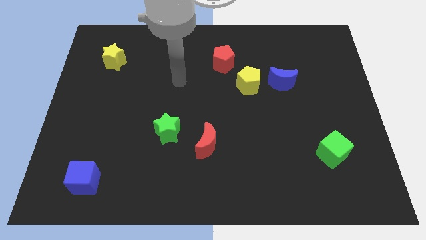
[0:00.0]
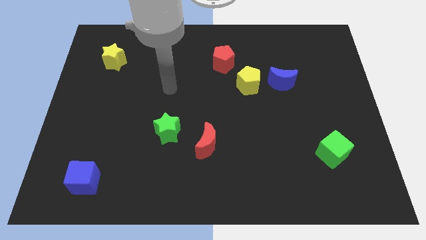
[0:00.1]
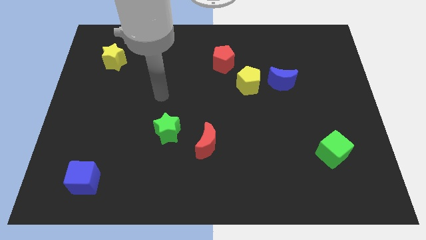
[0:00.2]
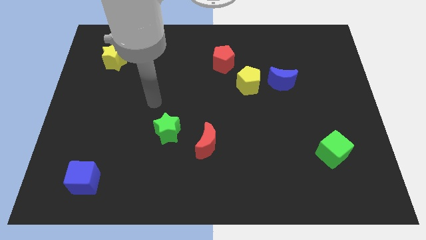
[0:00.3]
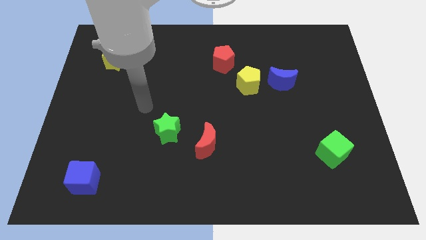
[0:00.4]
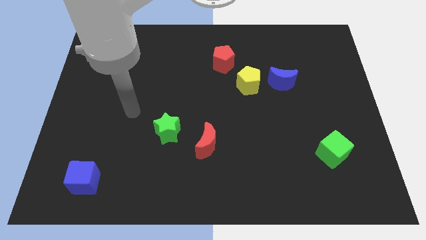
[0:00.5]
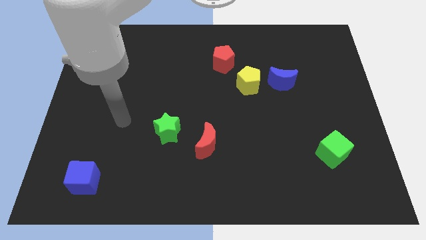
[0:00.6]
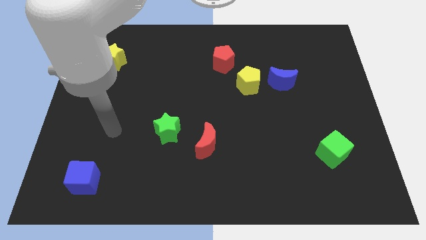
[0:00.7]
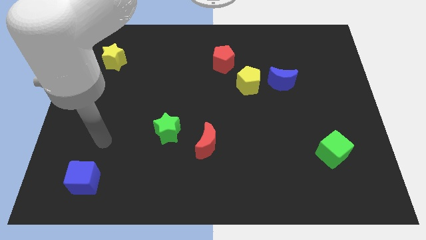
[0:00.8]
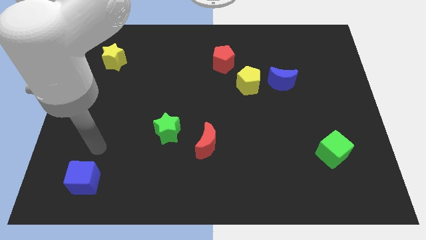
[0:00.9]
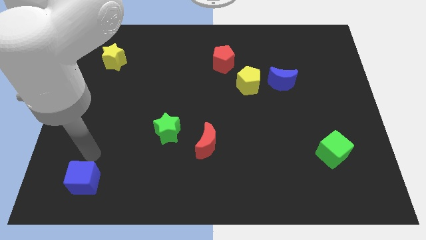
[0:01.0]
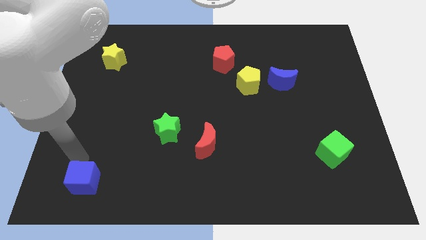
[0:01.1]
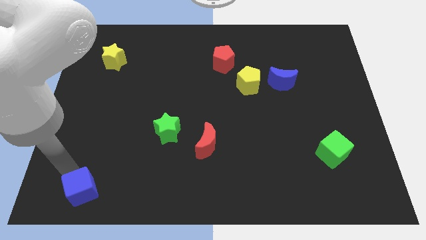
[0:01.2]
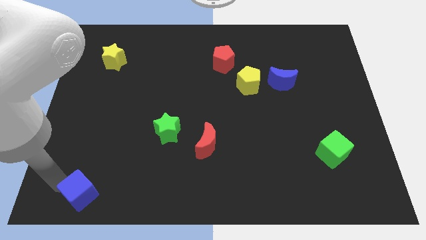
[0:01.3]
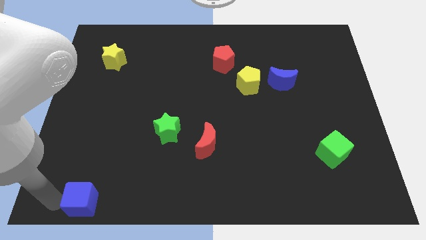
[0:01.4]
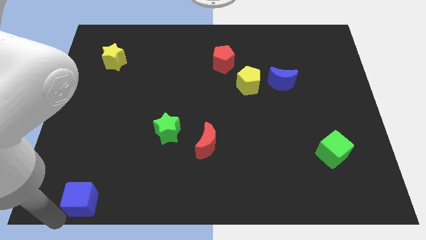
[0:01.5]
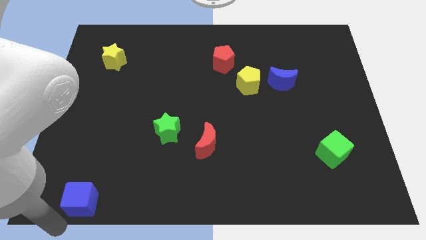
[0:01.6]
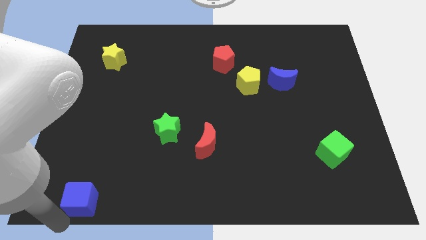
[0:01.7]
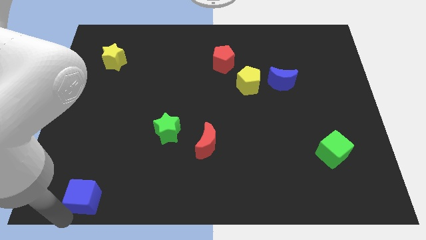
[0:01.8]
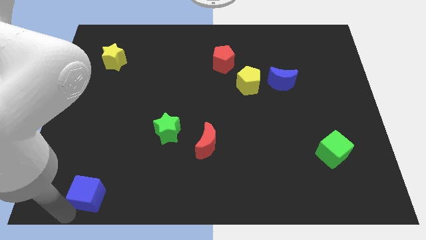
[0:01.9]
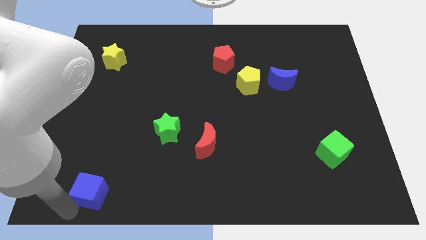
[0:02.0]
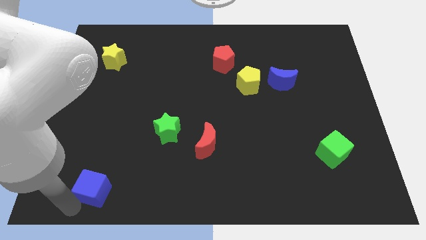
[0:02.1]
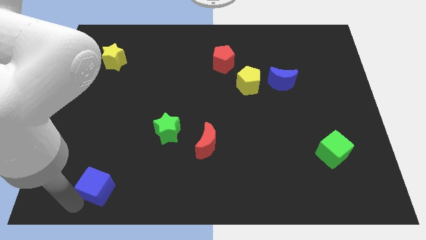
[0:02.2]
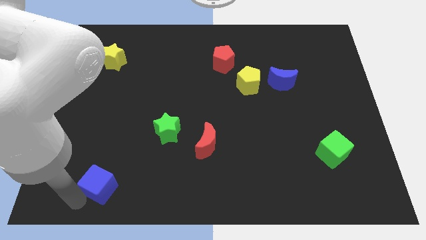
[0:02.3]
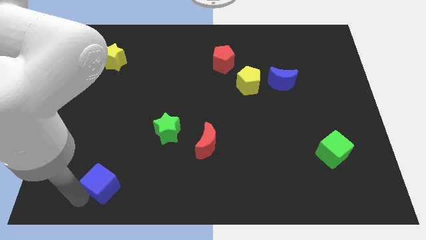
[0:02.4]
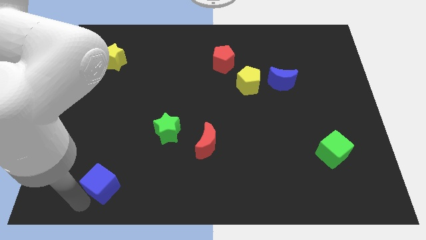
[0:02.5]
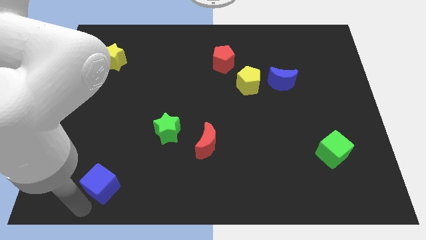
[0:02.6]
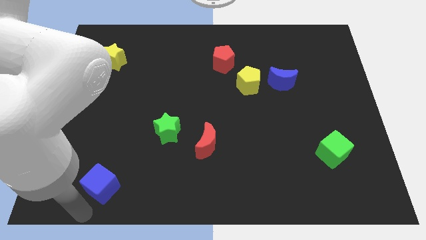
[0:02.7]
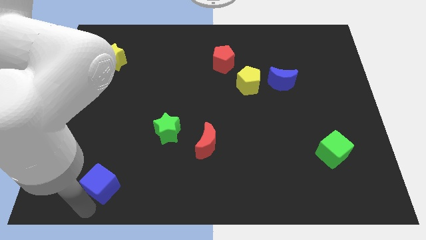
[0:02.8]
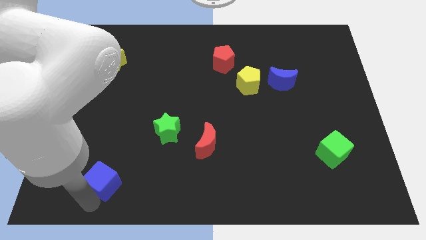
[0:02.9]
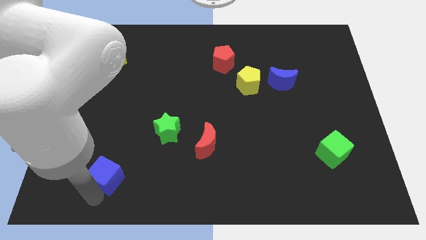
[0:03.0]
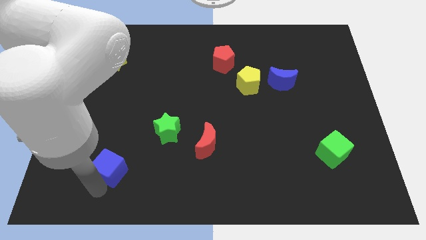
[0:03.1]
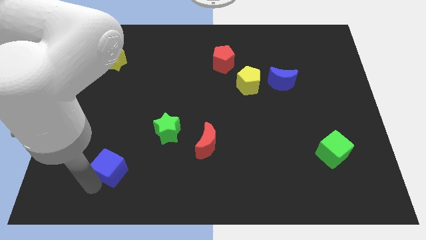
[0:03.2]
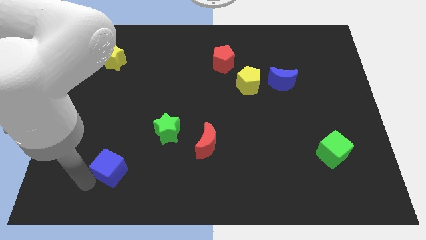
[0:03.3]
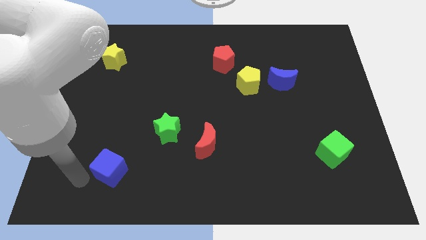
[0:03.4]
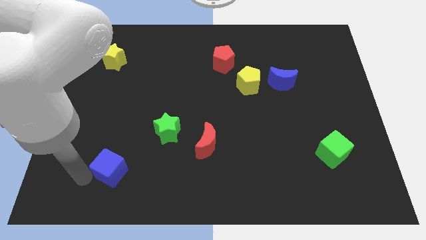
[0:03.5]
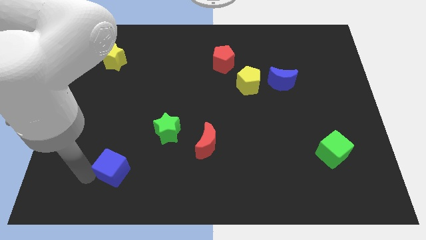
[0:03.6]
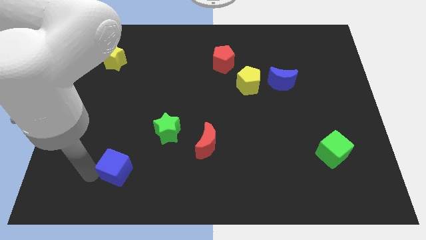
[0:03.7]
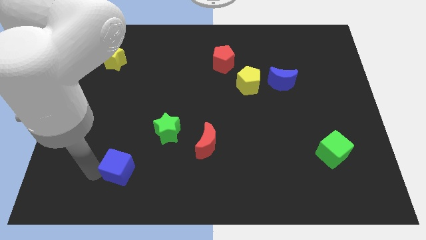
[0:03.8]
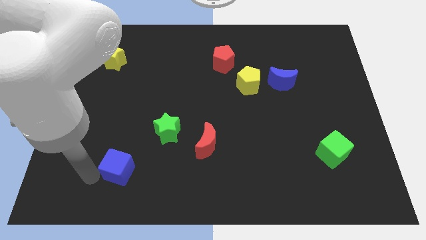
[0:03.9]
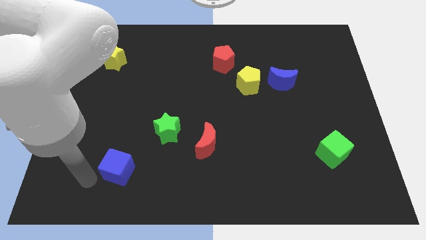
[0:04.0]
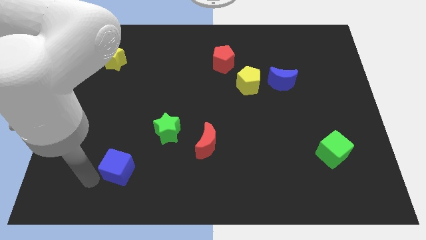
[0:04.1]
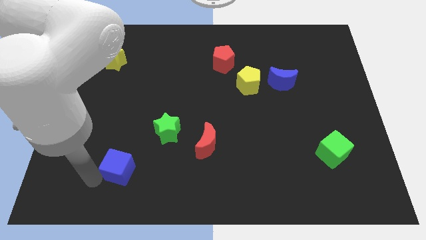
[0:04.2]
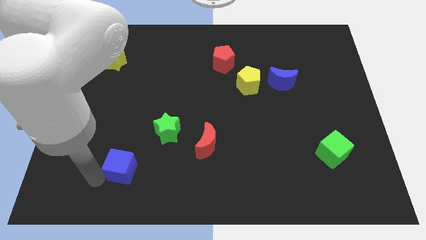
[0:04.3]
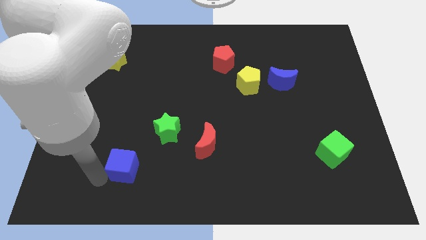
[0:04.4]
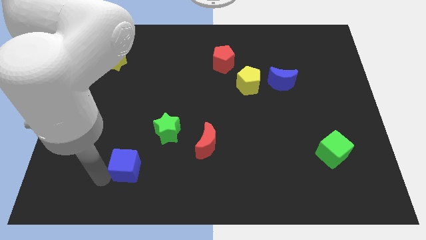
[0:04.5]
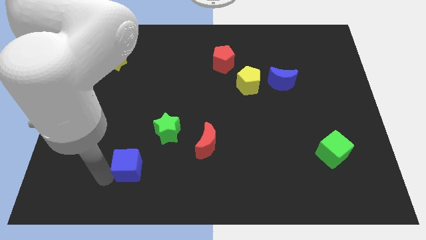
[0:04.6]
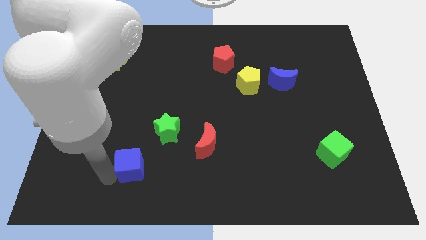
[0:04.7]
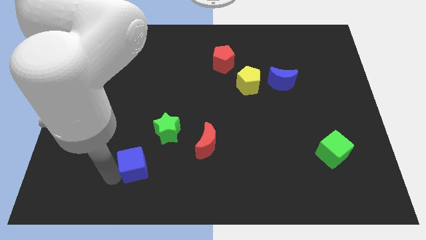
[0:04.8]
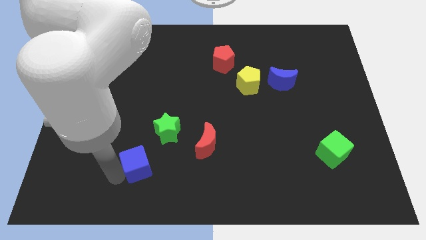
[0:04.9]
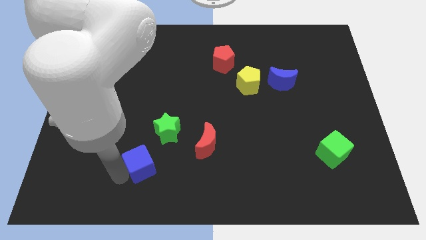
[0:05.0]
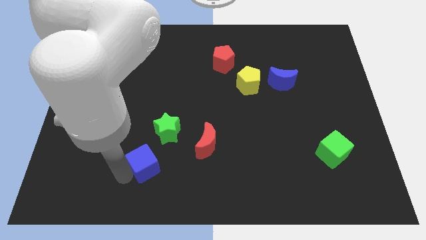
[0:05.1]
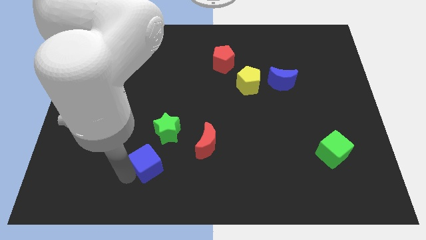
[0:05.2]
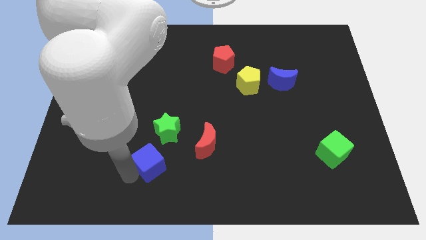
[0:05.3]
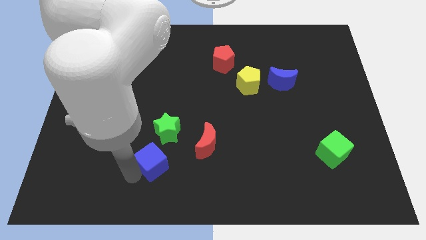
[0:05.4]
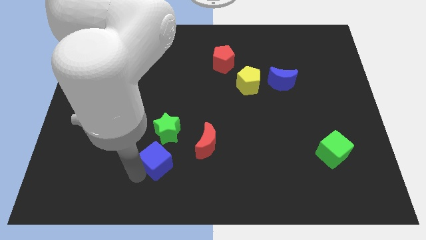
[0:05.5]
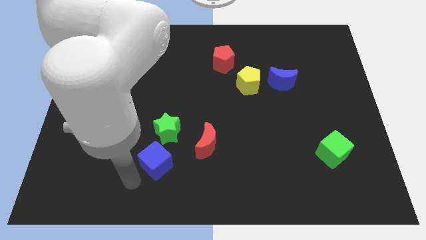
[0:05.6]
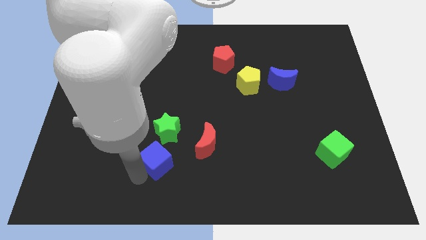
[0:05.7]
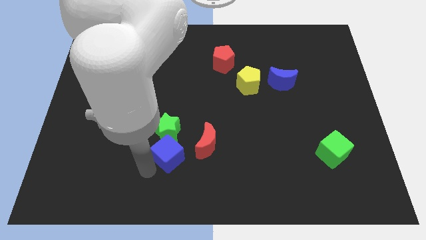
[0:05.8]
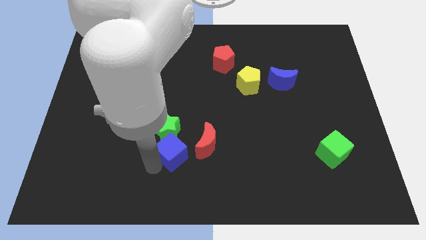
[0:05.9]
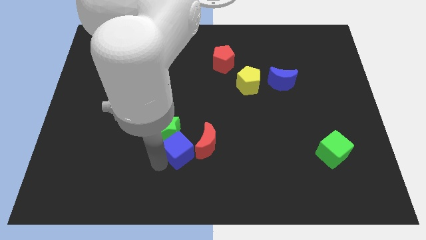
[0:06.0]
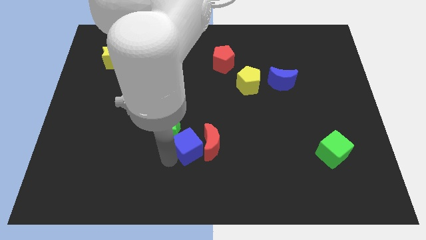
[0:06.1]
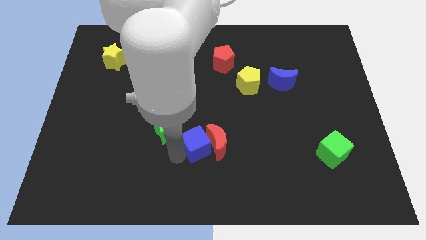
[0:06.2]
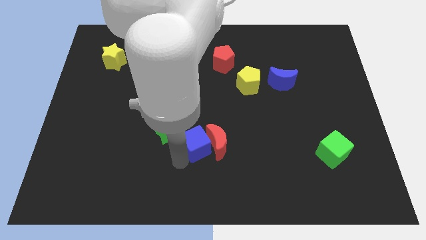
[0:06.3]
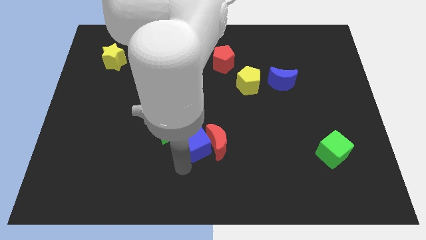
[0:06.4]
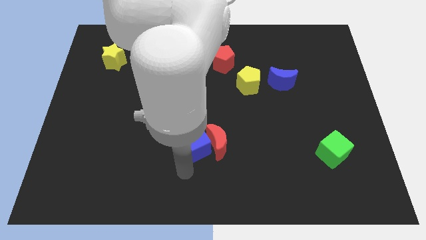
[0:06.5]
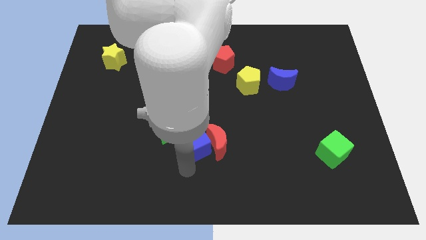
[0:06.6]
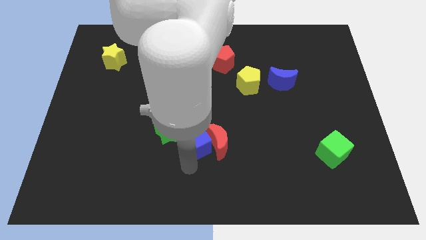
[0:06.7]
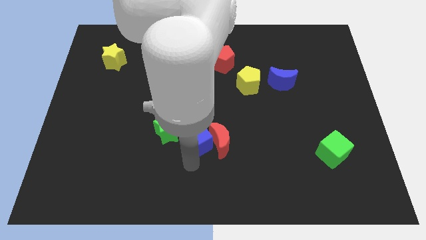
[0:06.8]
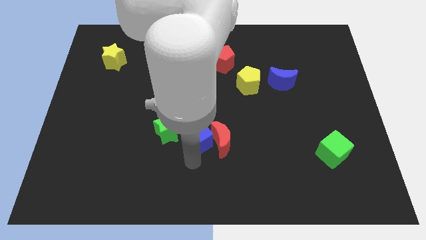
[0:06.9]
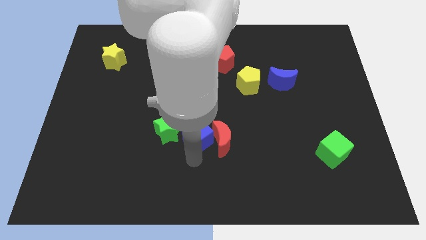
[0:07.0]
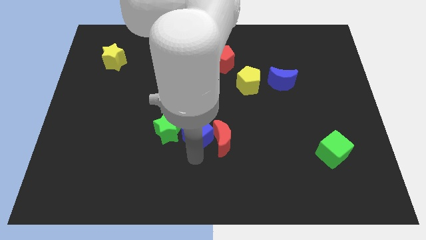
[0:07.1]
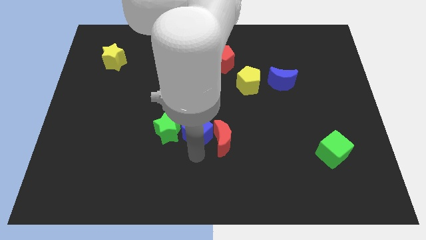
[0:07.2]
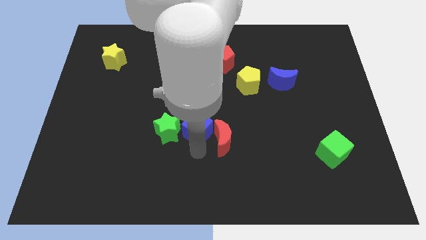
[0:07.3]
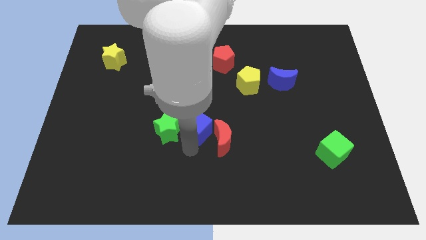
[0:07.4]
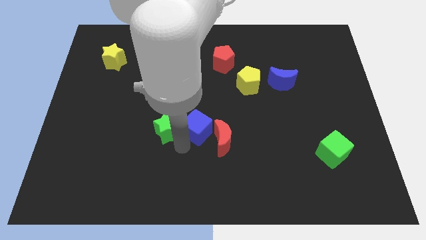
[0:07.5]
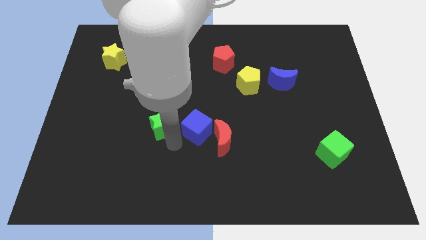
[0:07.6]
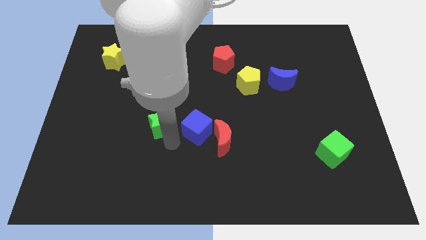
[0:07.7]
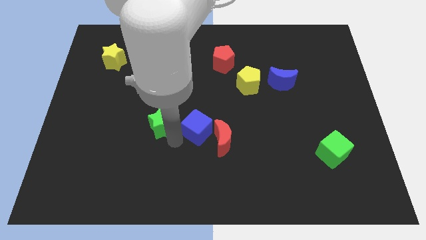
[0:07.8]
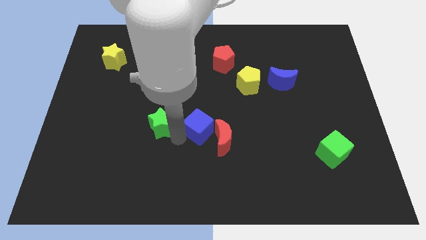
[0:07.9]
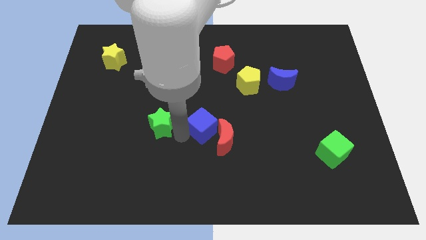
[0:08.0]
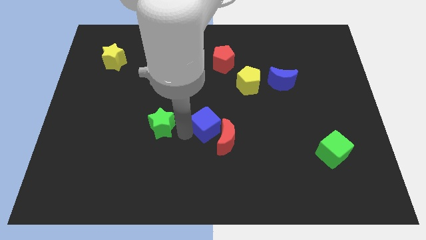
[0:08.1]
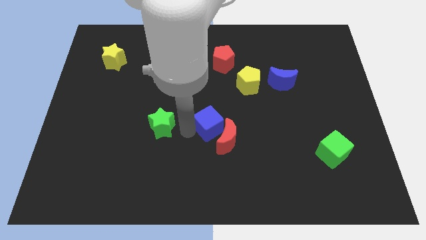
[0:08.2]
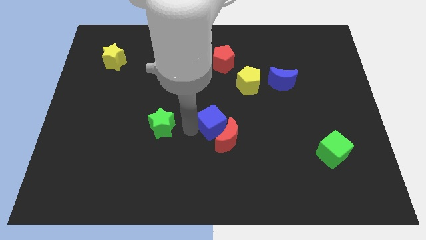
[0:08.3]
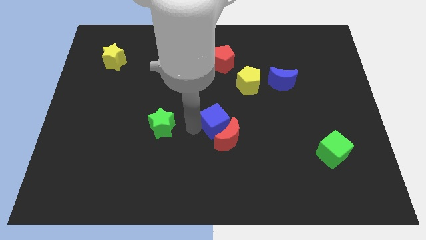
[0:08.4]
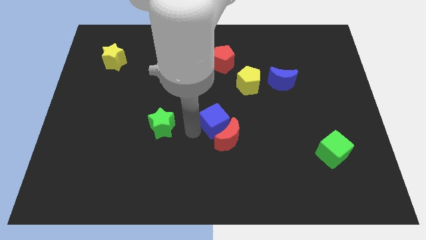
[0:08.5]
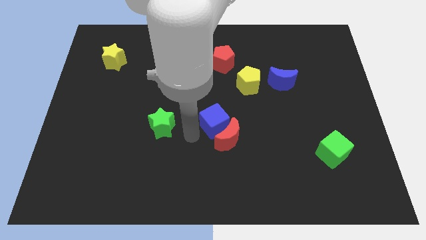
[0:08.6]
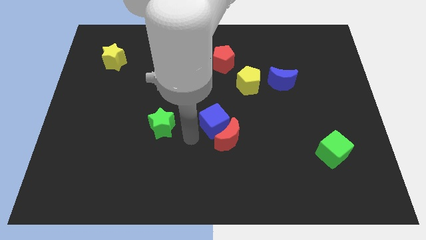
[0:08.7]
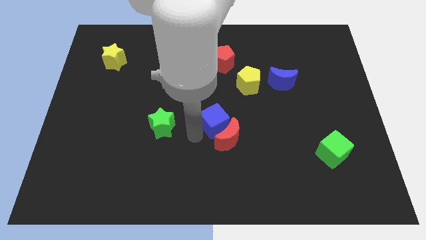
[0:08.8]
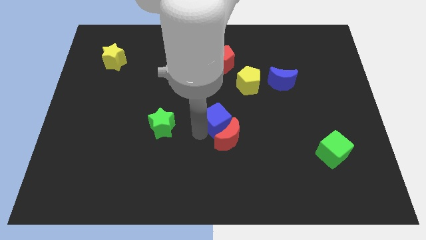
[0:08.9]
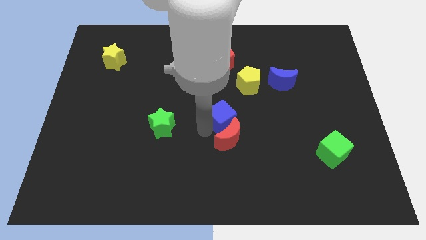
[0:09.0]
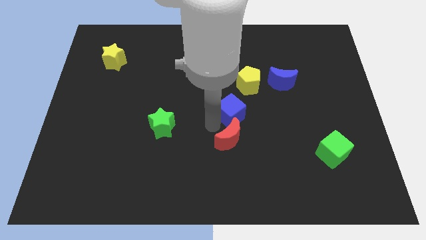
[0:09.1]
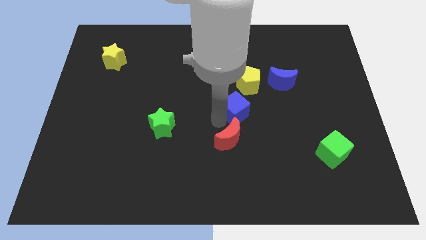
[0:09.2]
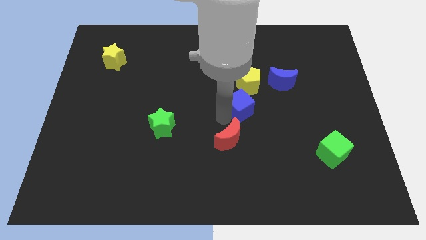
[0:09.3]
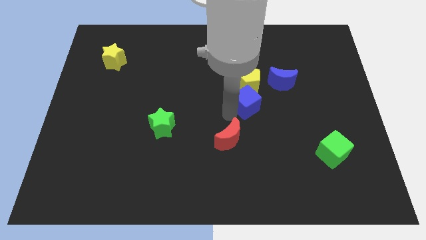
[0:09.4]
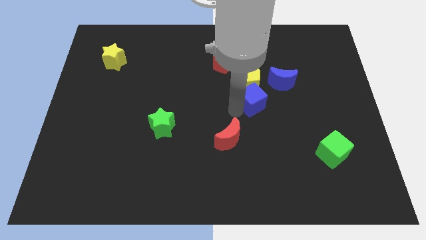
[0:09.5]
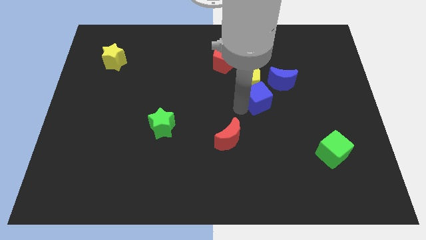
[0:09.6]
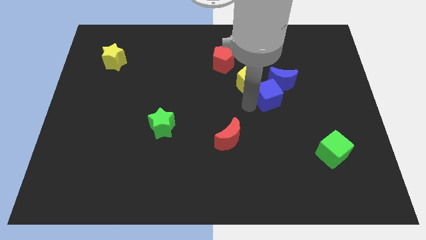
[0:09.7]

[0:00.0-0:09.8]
put the blue cube to the blue moon
